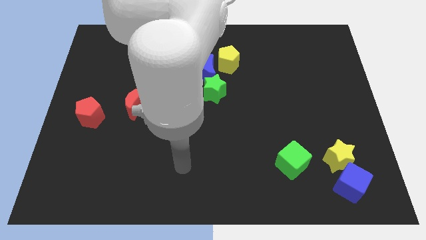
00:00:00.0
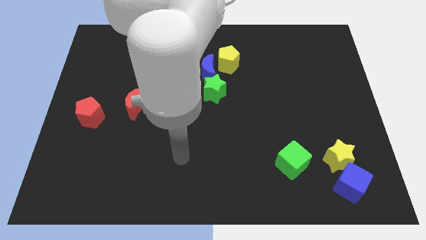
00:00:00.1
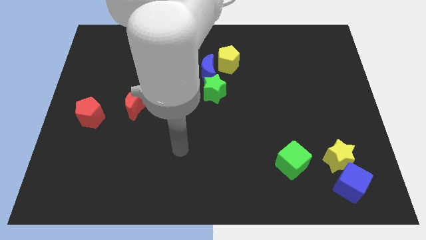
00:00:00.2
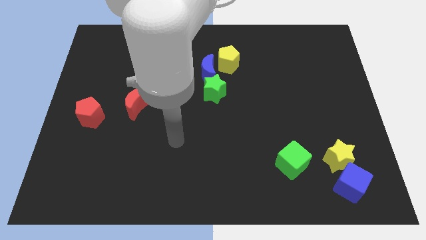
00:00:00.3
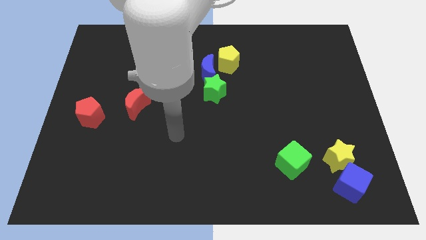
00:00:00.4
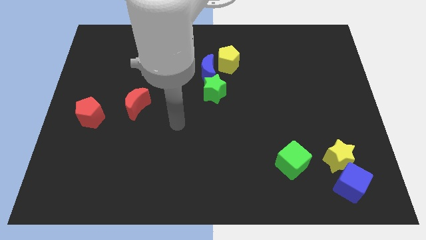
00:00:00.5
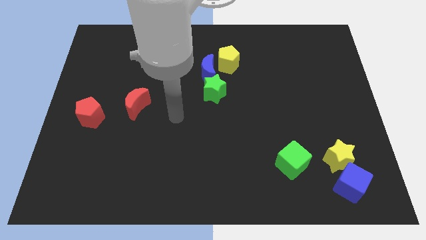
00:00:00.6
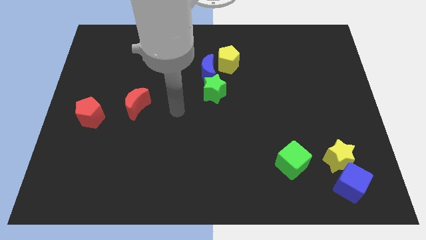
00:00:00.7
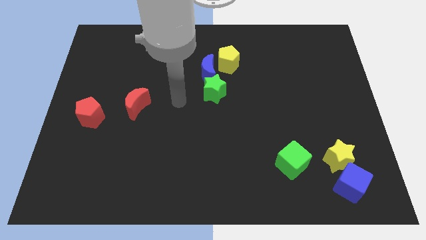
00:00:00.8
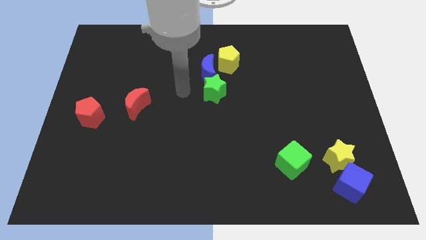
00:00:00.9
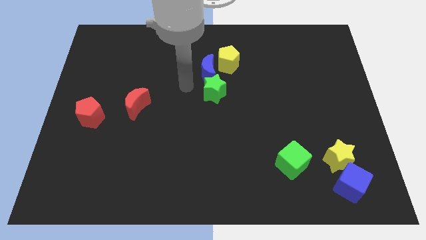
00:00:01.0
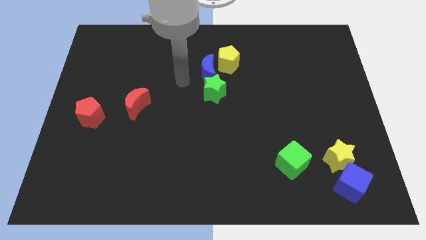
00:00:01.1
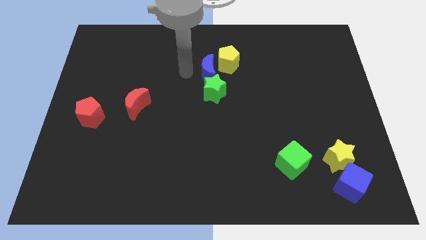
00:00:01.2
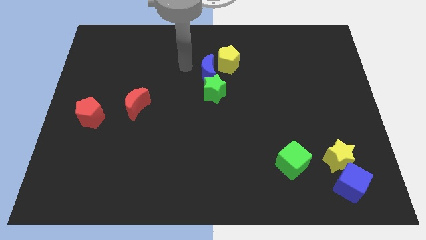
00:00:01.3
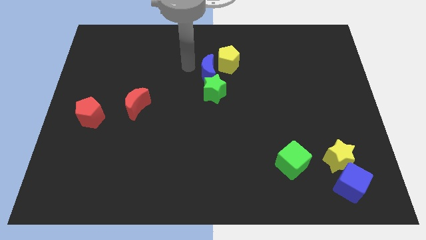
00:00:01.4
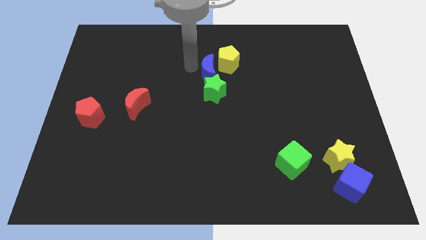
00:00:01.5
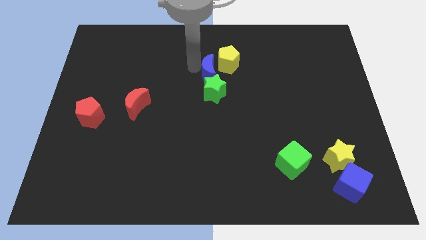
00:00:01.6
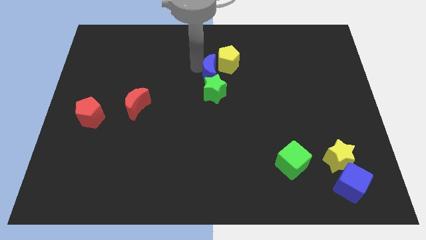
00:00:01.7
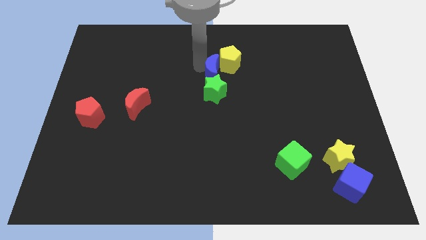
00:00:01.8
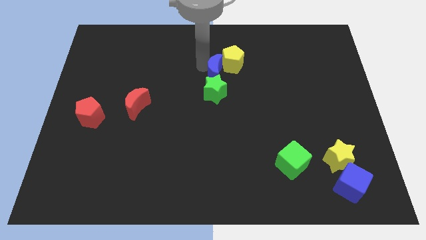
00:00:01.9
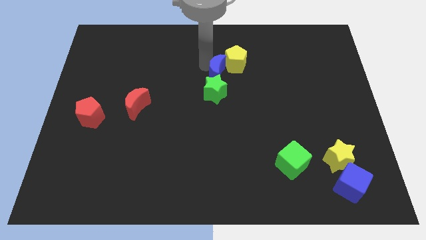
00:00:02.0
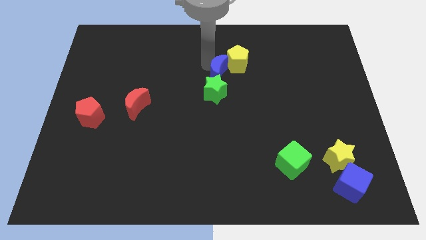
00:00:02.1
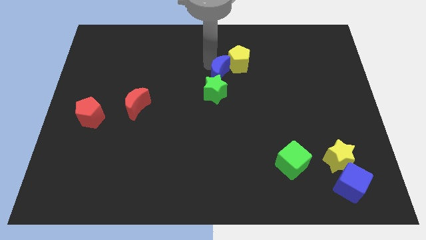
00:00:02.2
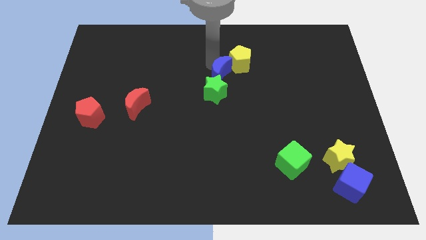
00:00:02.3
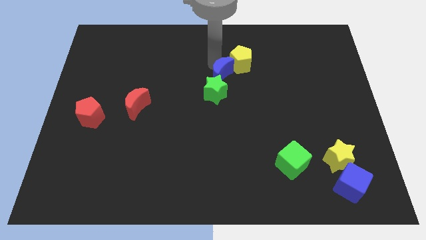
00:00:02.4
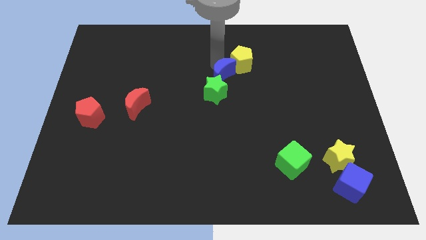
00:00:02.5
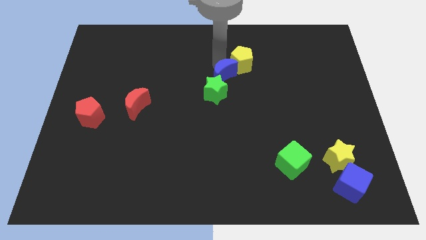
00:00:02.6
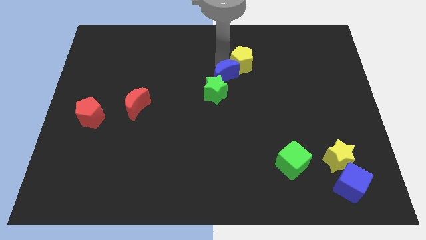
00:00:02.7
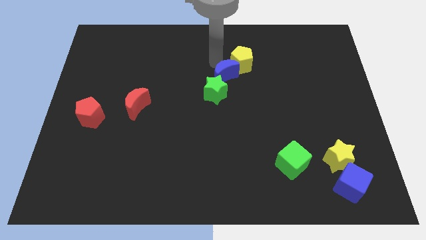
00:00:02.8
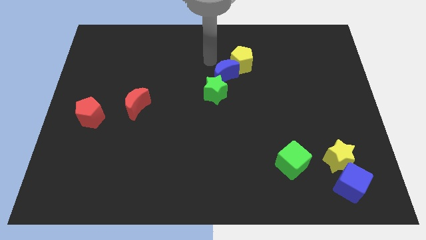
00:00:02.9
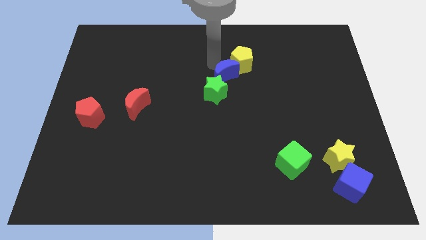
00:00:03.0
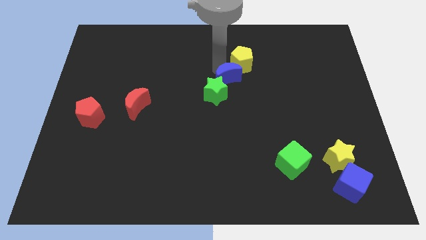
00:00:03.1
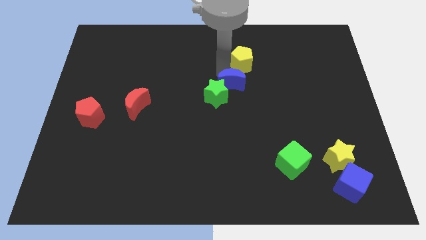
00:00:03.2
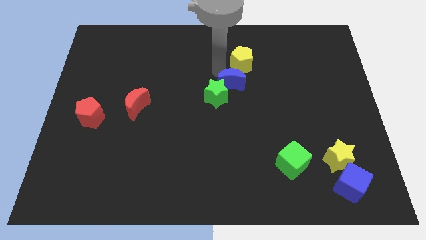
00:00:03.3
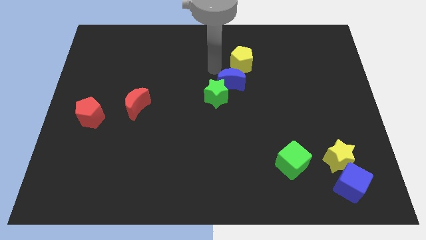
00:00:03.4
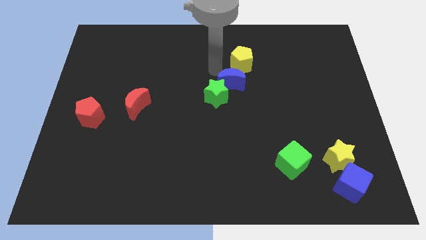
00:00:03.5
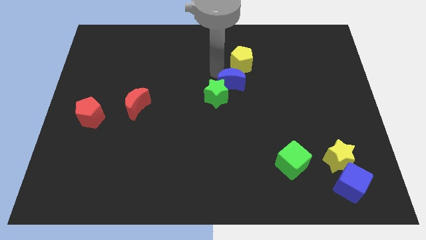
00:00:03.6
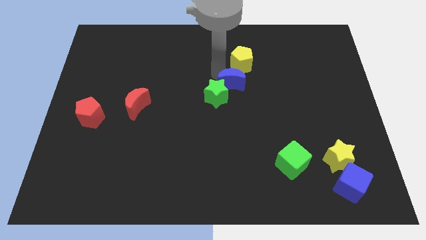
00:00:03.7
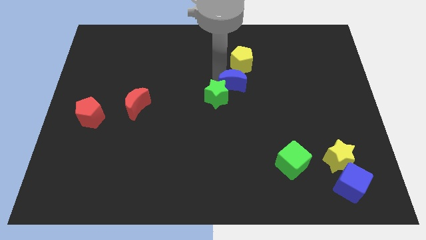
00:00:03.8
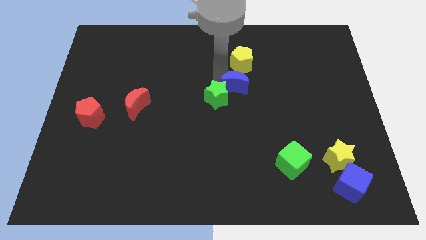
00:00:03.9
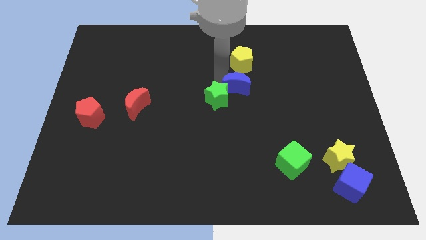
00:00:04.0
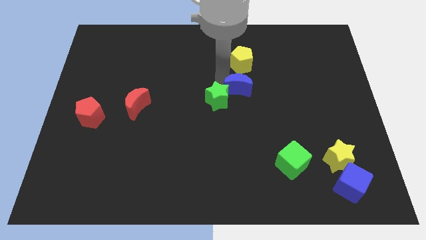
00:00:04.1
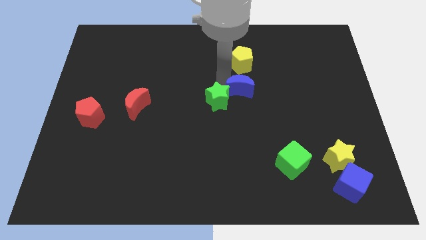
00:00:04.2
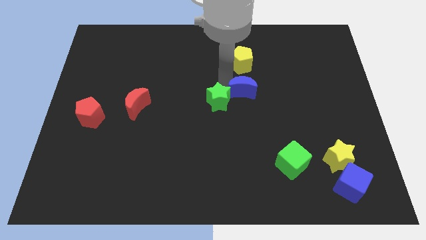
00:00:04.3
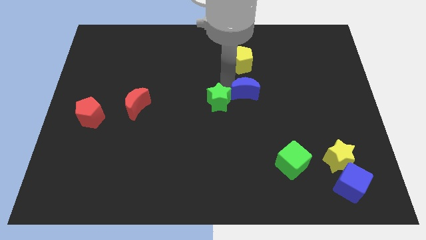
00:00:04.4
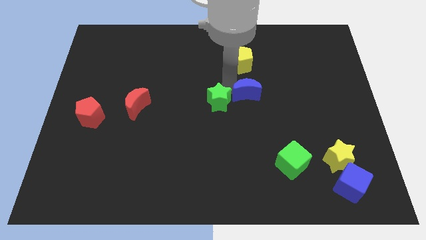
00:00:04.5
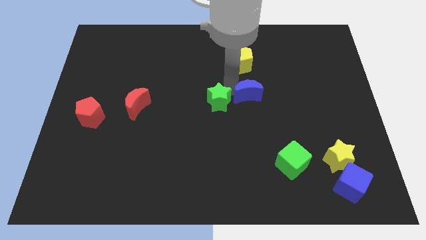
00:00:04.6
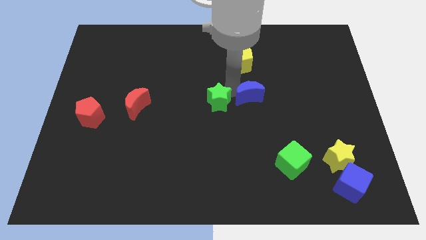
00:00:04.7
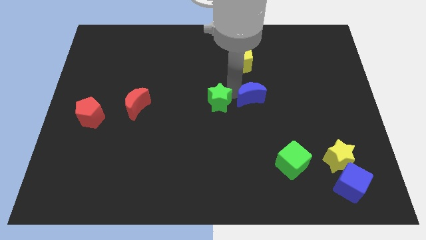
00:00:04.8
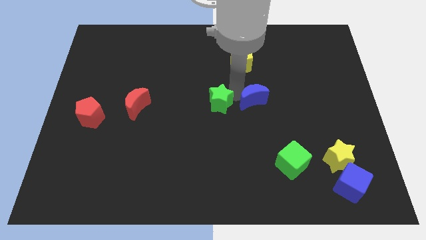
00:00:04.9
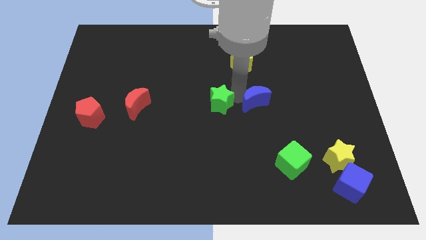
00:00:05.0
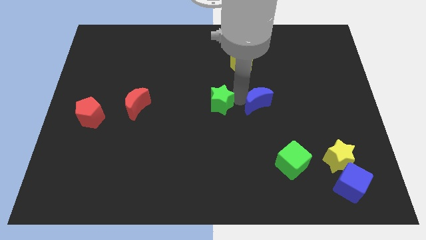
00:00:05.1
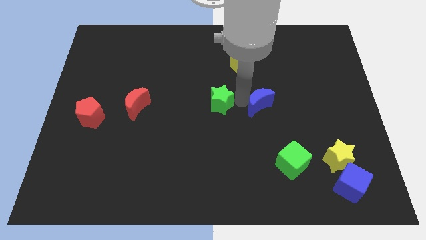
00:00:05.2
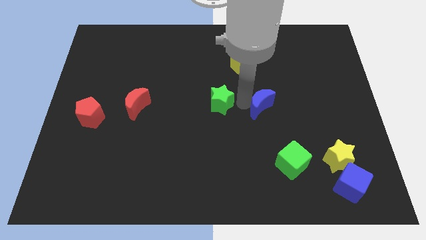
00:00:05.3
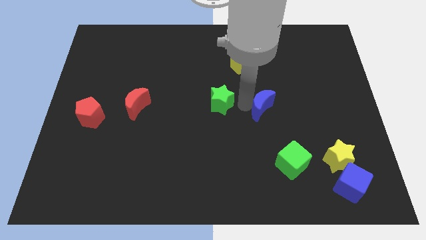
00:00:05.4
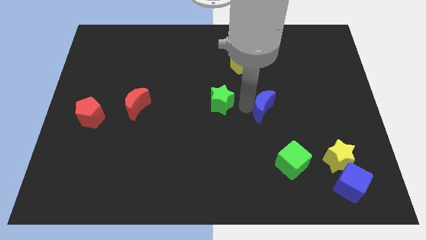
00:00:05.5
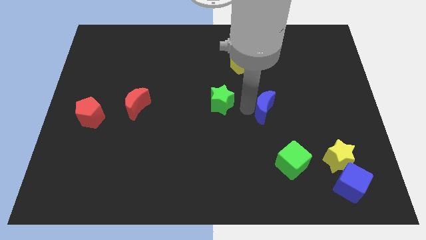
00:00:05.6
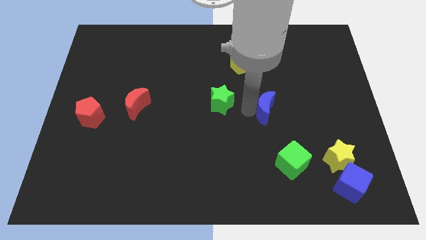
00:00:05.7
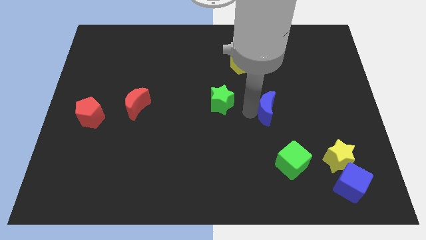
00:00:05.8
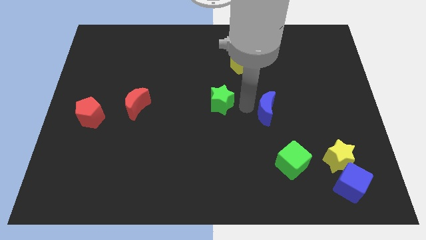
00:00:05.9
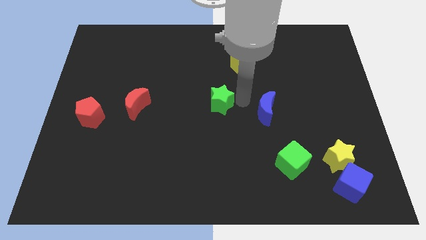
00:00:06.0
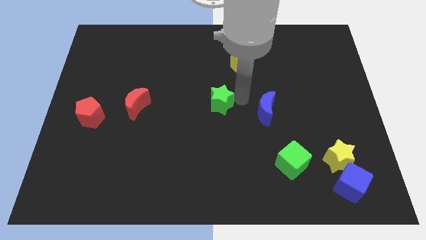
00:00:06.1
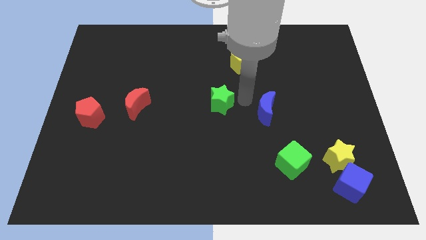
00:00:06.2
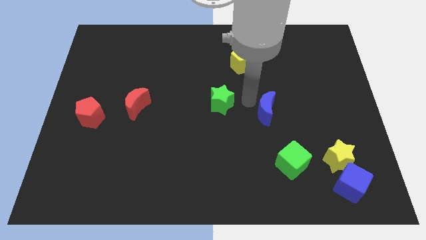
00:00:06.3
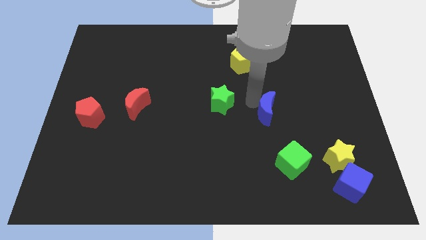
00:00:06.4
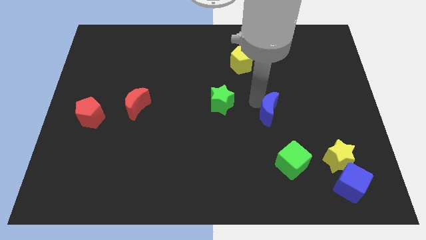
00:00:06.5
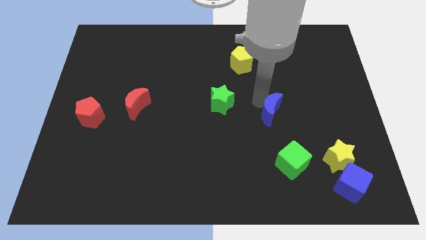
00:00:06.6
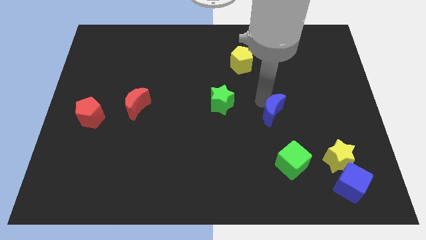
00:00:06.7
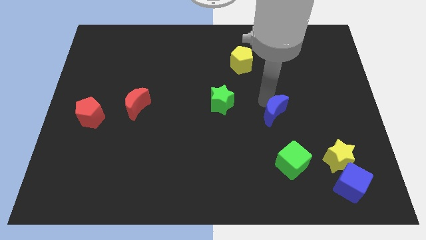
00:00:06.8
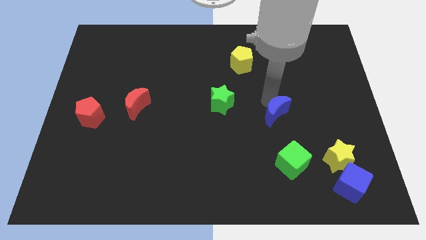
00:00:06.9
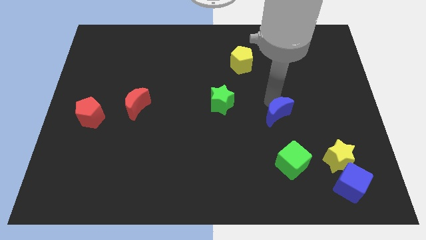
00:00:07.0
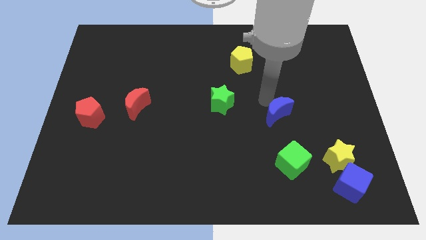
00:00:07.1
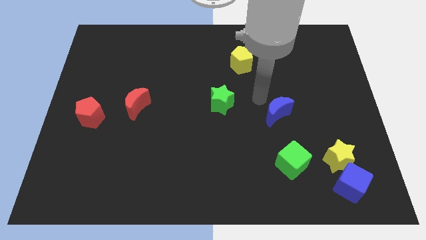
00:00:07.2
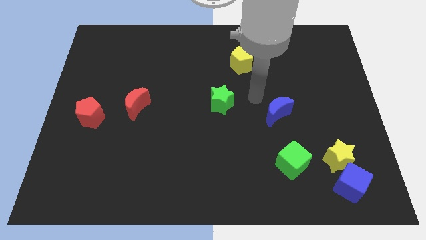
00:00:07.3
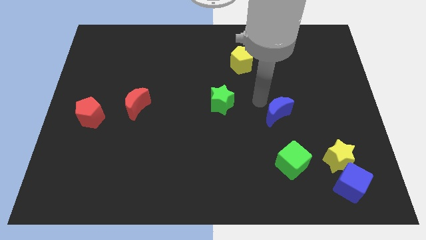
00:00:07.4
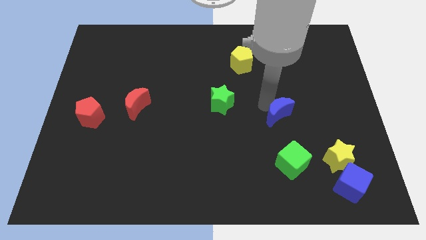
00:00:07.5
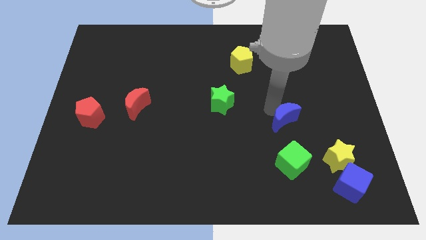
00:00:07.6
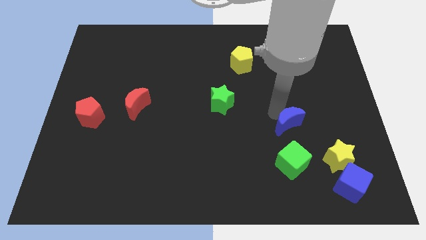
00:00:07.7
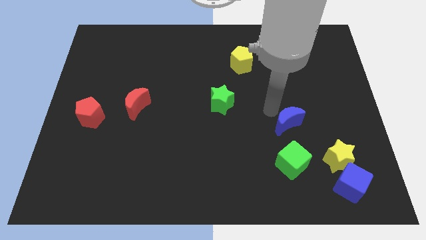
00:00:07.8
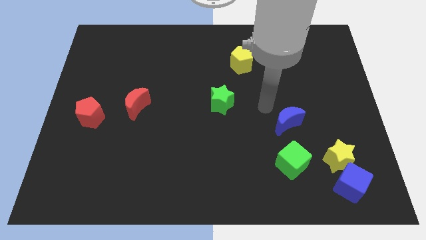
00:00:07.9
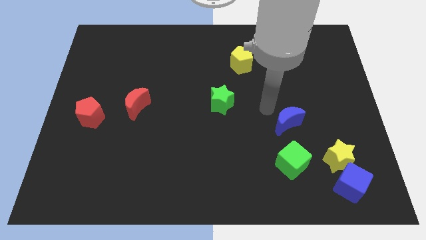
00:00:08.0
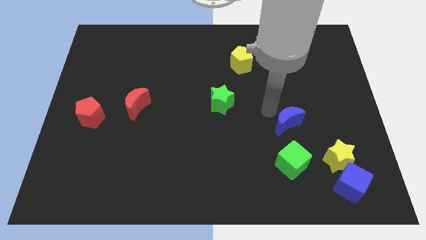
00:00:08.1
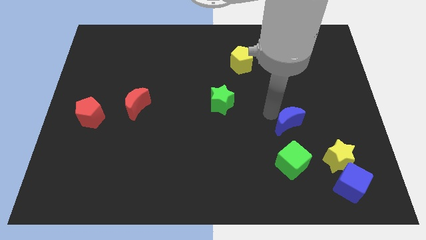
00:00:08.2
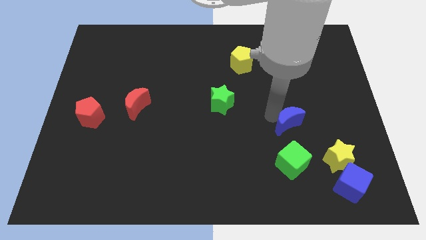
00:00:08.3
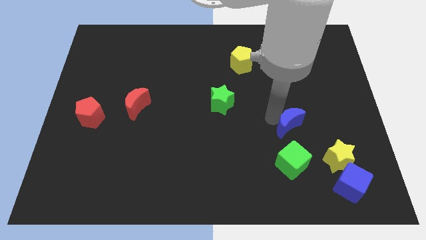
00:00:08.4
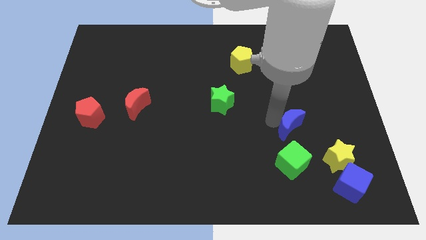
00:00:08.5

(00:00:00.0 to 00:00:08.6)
slide the blue moon to the top left side of the yellow star
